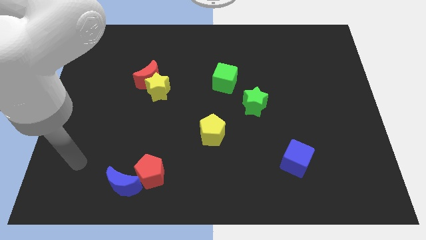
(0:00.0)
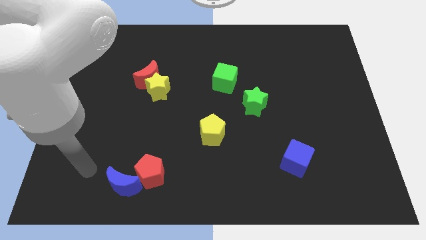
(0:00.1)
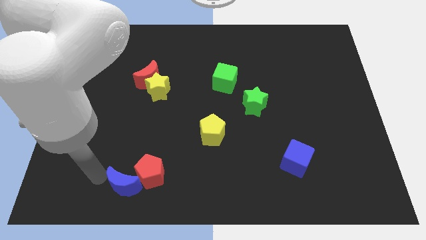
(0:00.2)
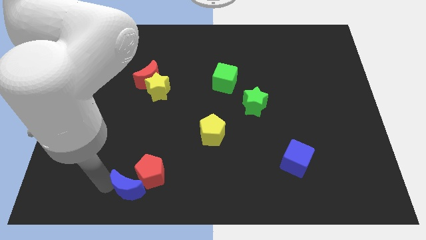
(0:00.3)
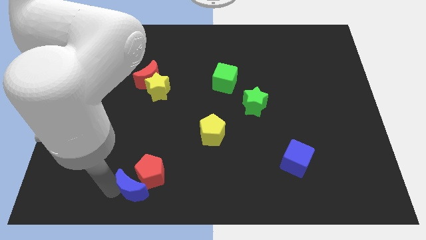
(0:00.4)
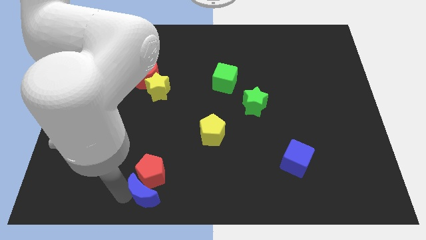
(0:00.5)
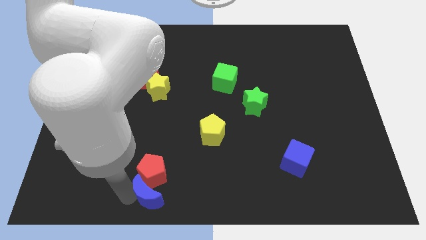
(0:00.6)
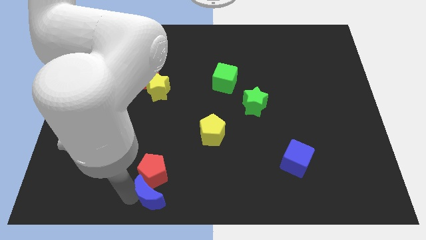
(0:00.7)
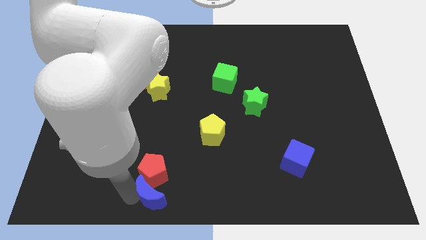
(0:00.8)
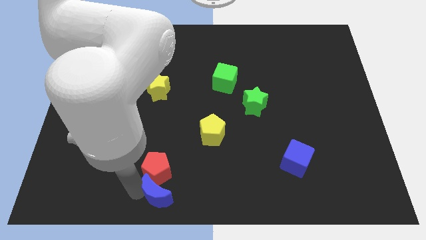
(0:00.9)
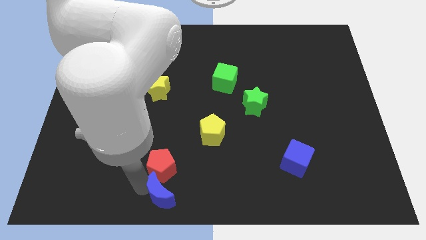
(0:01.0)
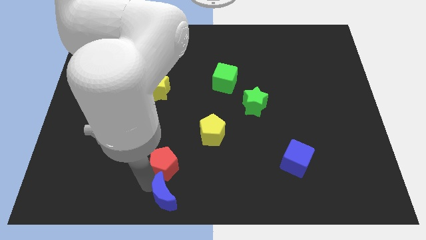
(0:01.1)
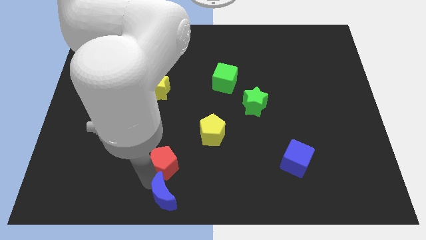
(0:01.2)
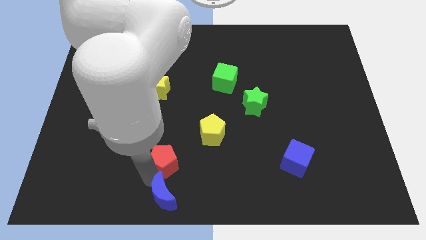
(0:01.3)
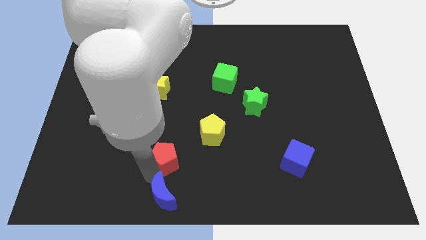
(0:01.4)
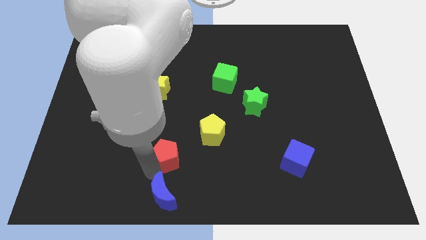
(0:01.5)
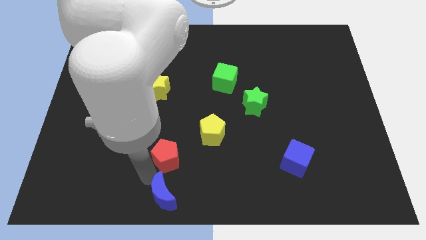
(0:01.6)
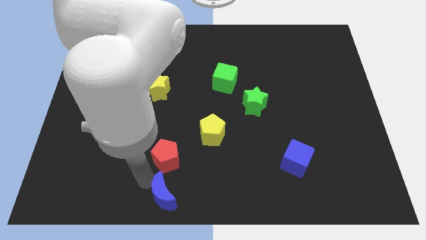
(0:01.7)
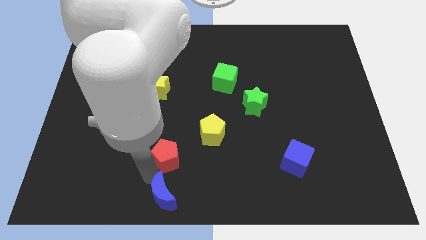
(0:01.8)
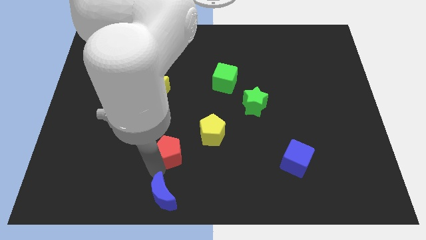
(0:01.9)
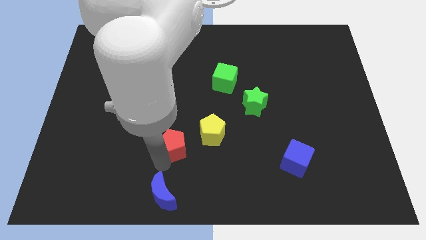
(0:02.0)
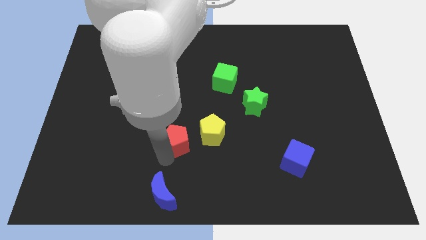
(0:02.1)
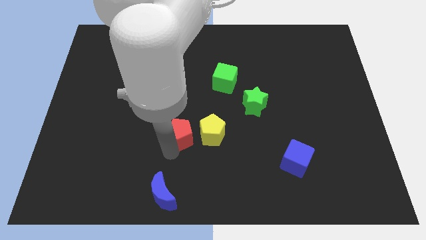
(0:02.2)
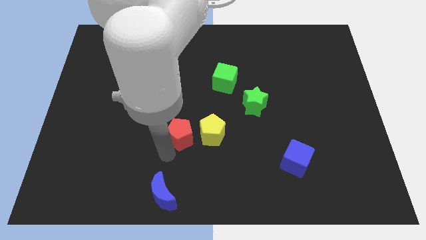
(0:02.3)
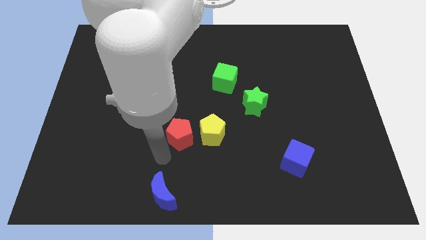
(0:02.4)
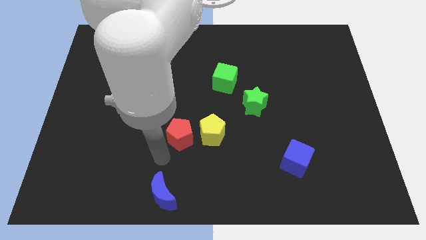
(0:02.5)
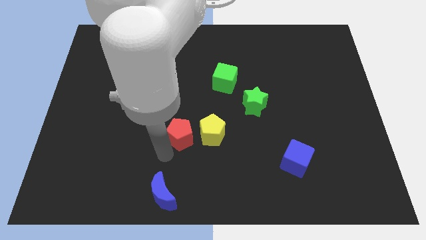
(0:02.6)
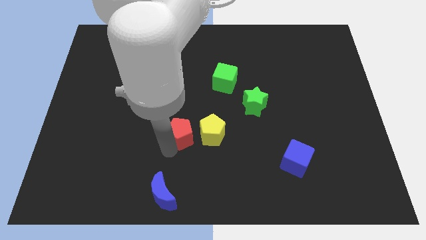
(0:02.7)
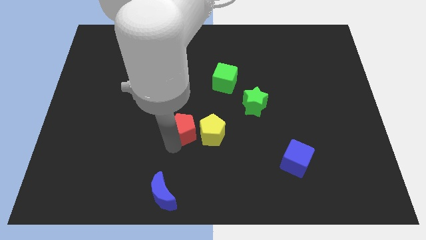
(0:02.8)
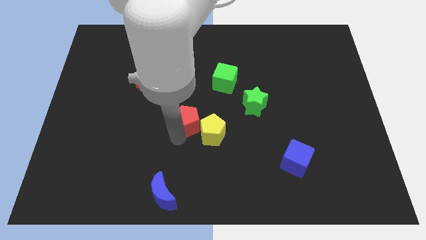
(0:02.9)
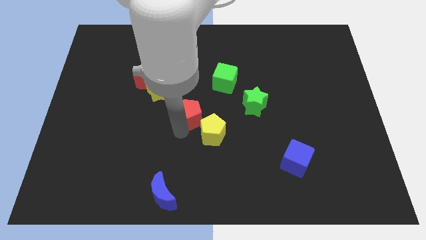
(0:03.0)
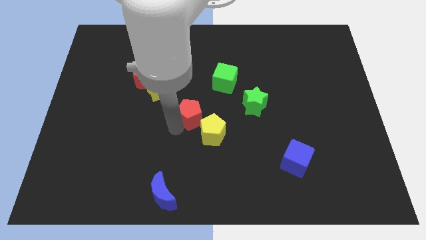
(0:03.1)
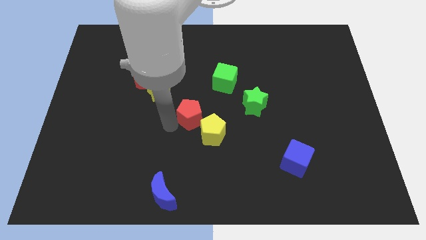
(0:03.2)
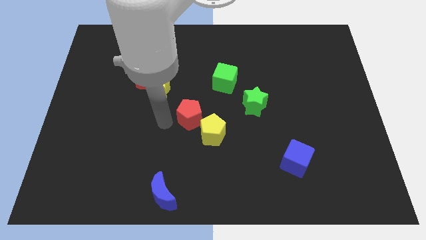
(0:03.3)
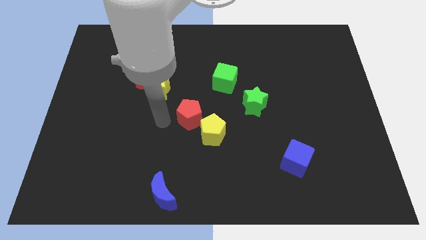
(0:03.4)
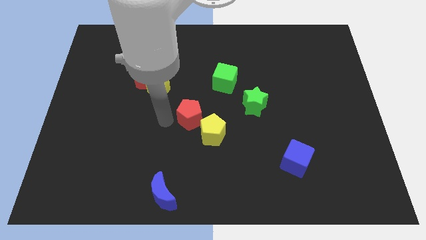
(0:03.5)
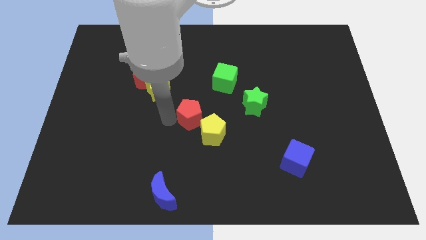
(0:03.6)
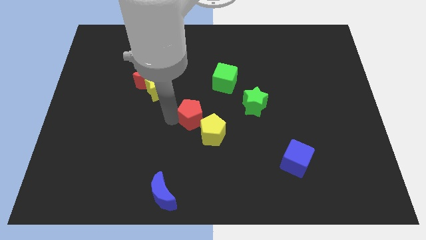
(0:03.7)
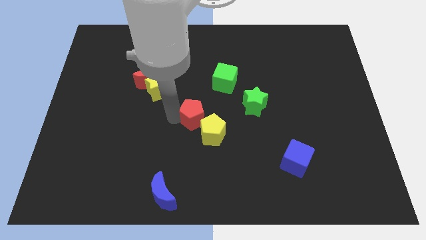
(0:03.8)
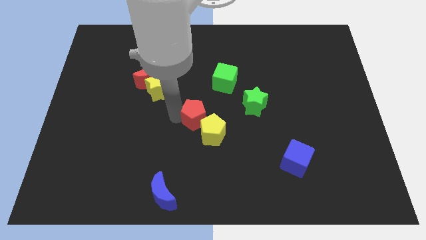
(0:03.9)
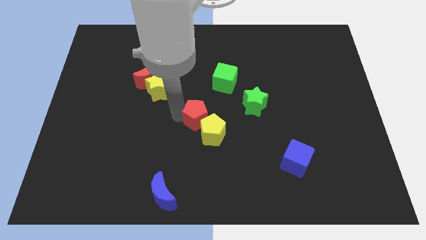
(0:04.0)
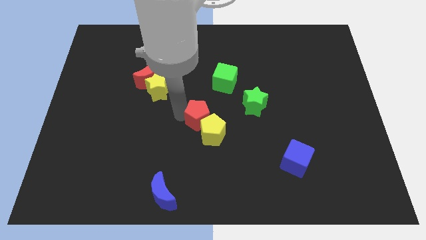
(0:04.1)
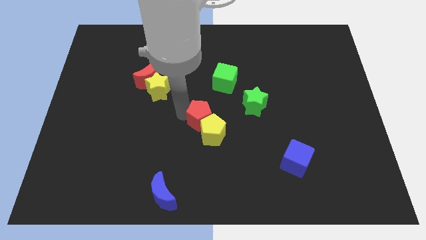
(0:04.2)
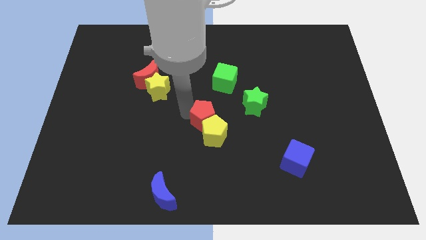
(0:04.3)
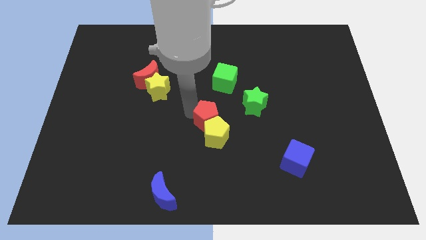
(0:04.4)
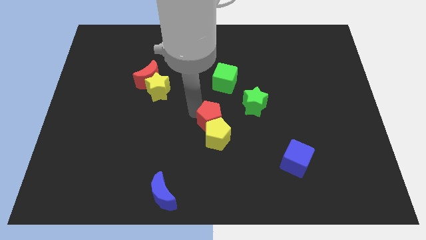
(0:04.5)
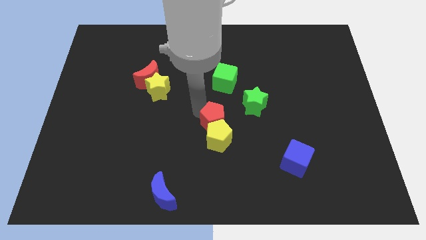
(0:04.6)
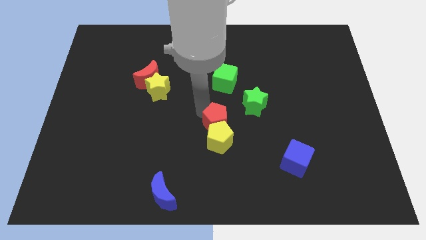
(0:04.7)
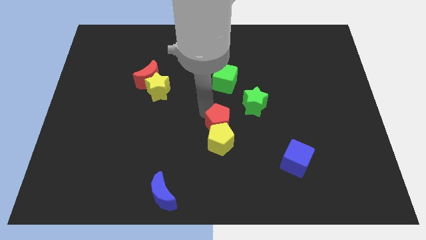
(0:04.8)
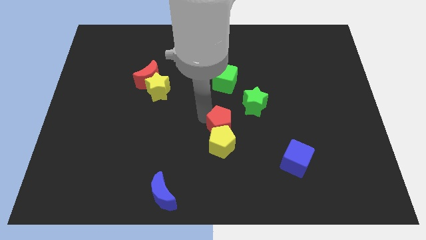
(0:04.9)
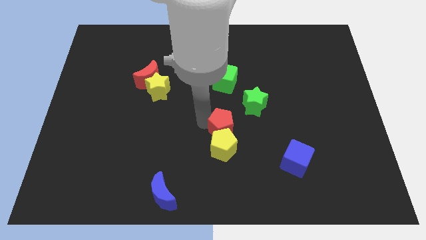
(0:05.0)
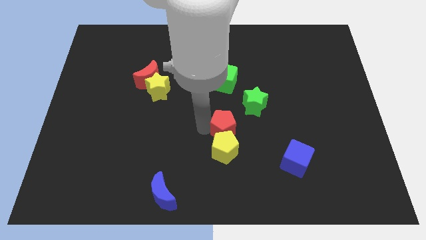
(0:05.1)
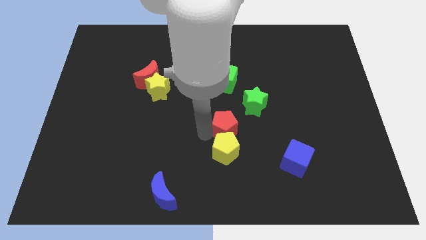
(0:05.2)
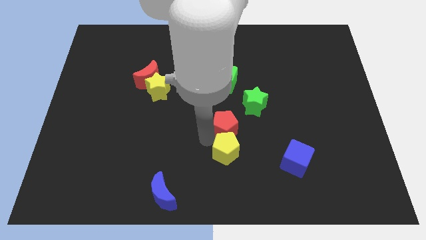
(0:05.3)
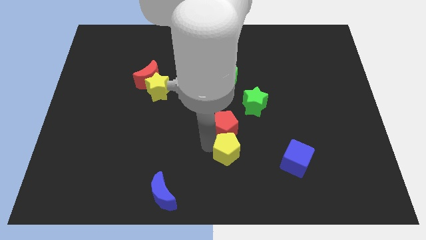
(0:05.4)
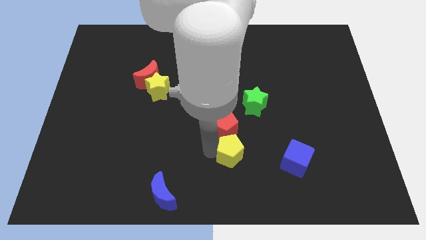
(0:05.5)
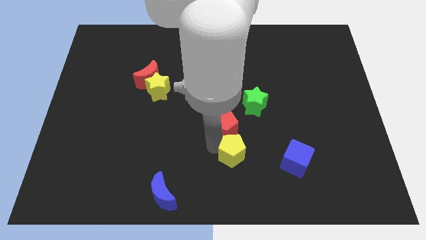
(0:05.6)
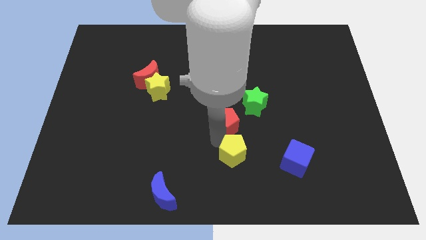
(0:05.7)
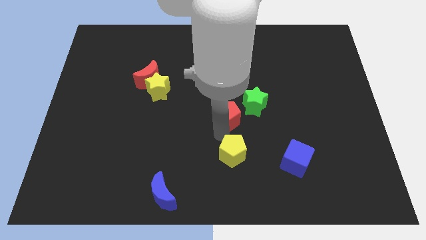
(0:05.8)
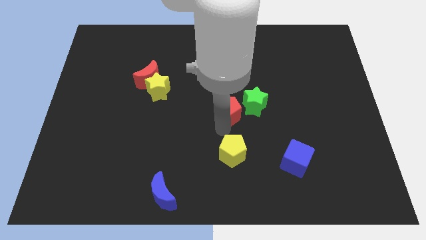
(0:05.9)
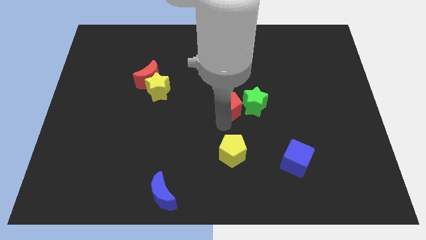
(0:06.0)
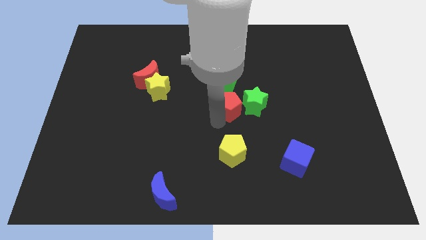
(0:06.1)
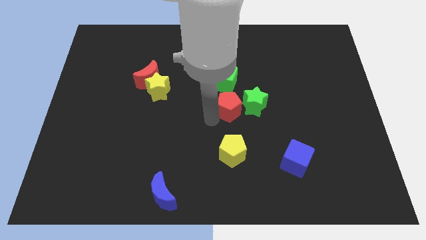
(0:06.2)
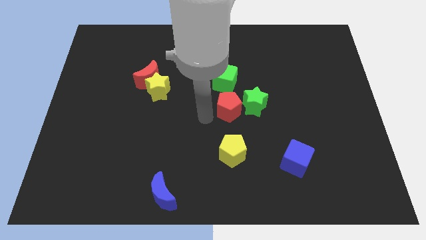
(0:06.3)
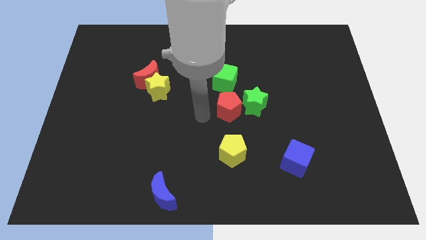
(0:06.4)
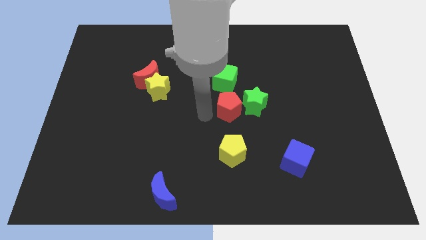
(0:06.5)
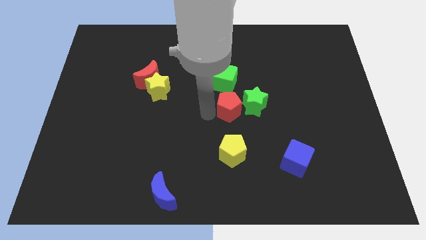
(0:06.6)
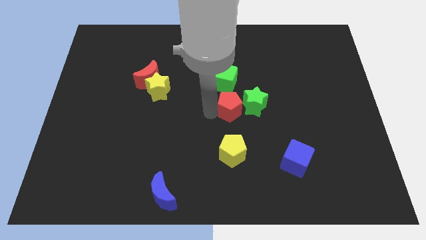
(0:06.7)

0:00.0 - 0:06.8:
move the red pentagon close to the green star
